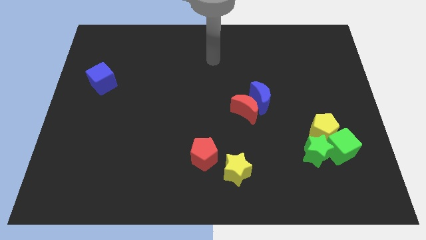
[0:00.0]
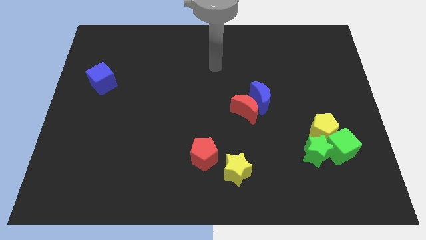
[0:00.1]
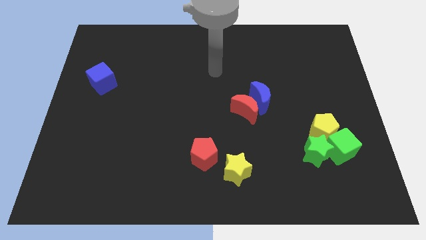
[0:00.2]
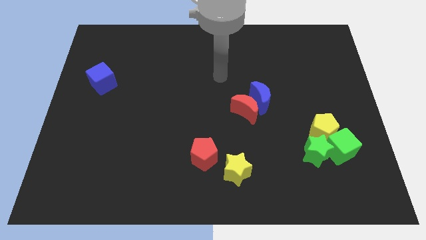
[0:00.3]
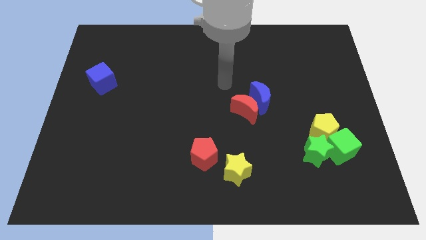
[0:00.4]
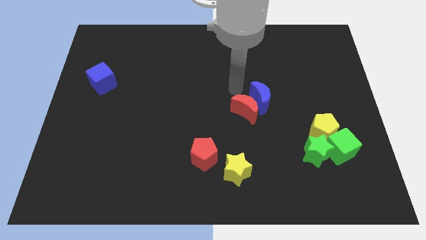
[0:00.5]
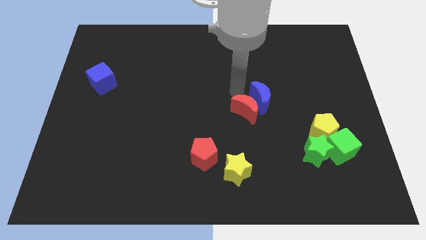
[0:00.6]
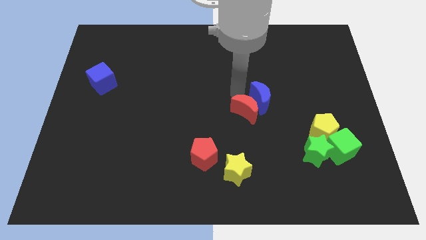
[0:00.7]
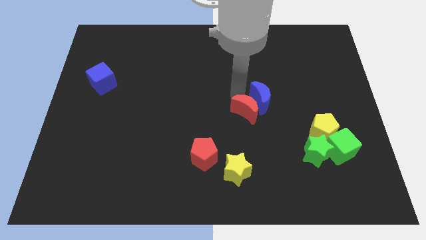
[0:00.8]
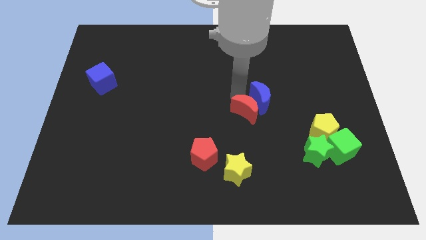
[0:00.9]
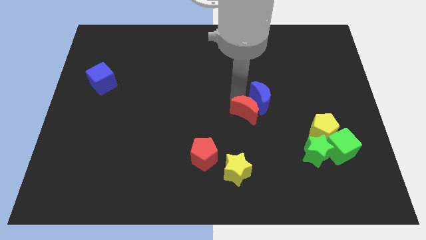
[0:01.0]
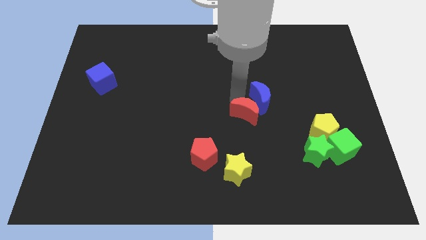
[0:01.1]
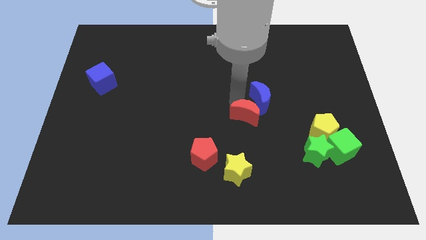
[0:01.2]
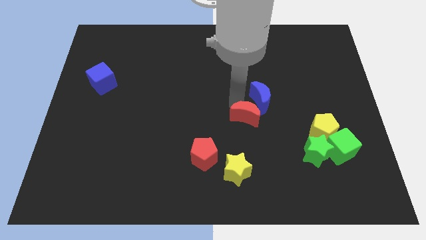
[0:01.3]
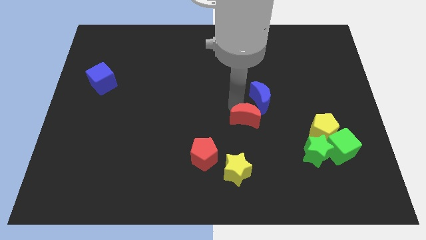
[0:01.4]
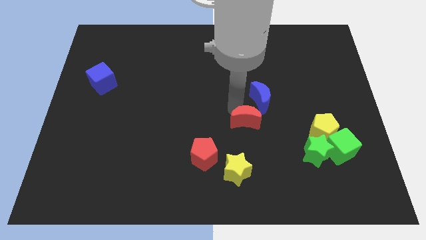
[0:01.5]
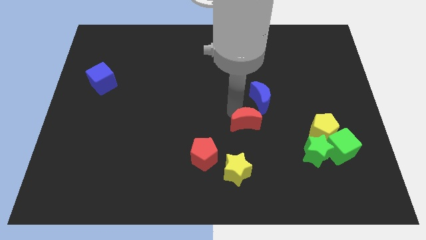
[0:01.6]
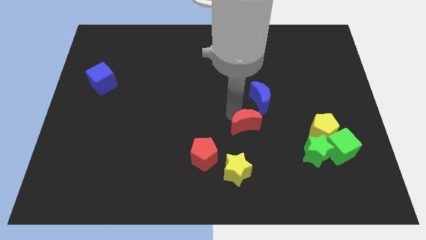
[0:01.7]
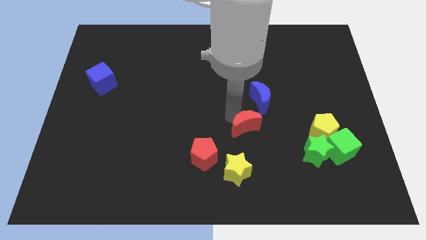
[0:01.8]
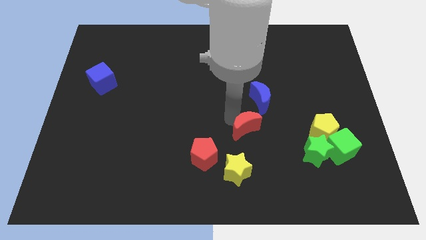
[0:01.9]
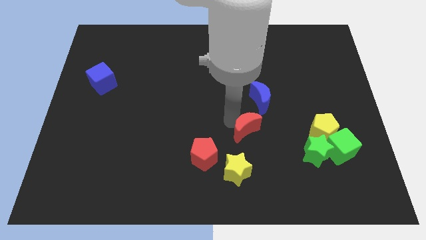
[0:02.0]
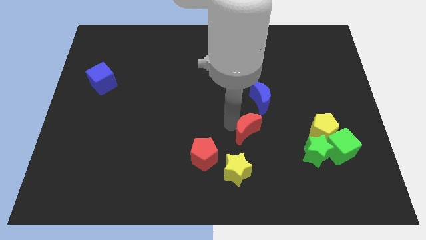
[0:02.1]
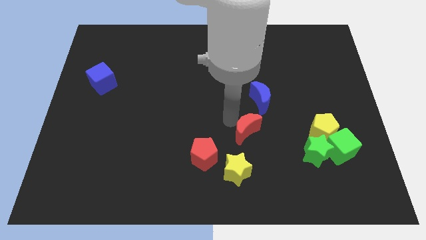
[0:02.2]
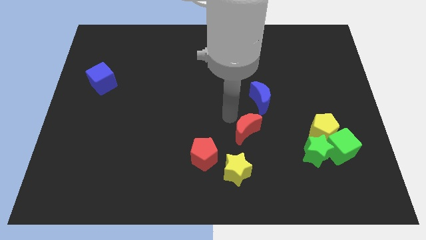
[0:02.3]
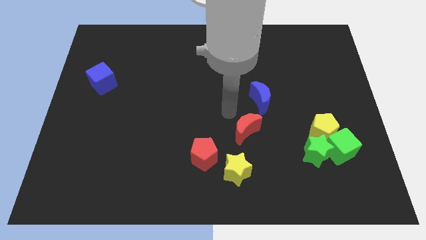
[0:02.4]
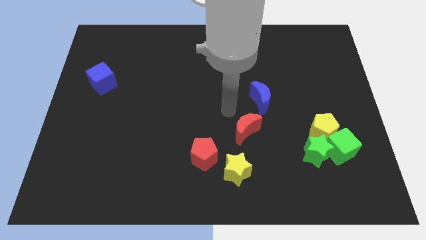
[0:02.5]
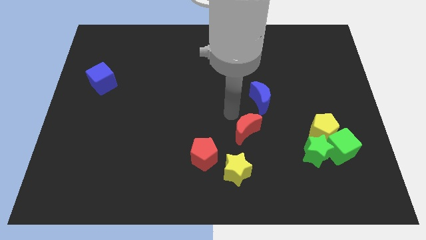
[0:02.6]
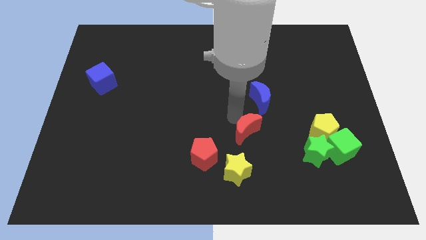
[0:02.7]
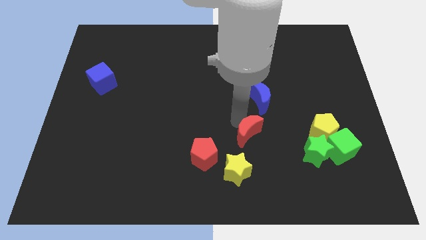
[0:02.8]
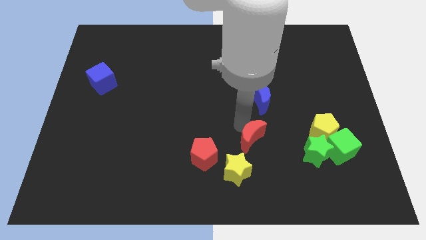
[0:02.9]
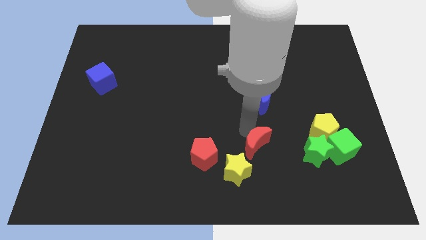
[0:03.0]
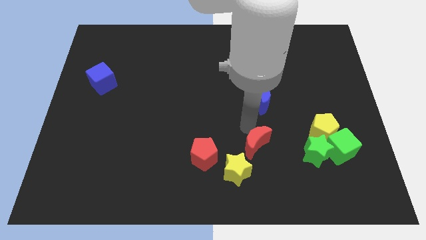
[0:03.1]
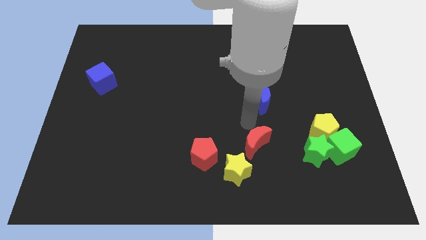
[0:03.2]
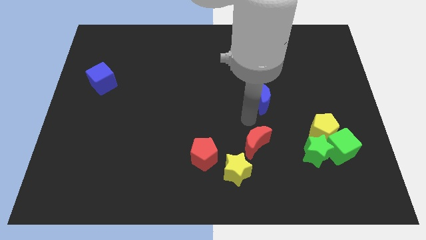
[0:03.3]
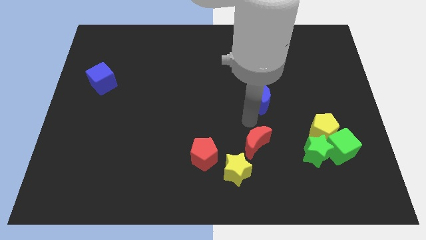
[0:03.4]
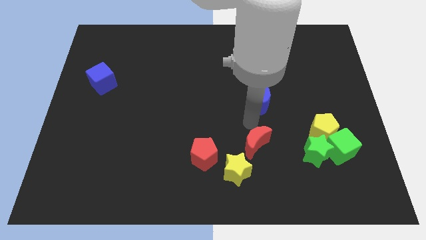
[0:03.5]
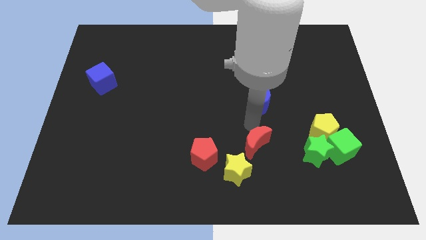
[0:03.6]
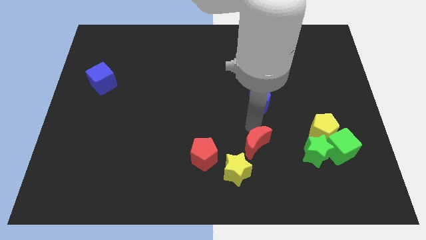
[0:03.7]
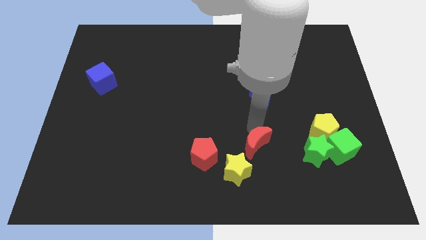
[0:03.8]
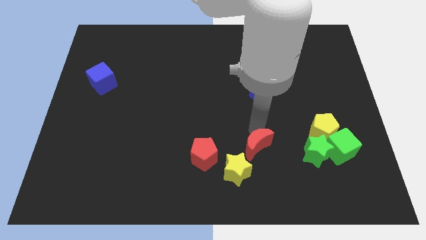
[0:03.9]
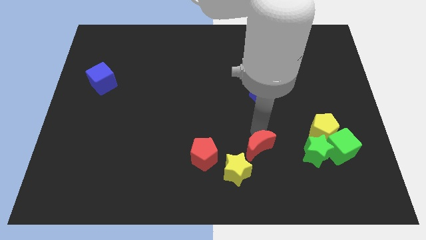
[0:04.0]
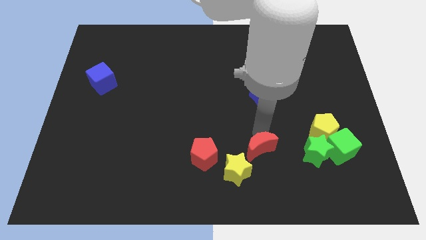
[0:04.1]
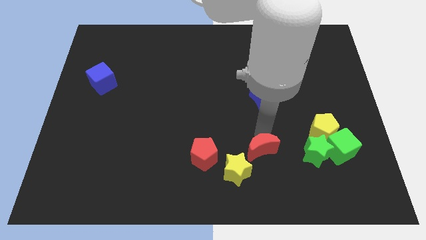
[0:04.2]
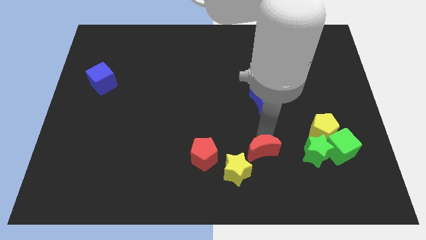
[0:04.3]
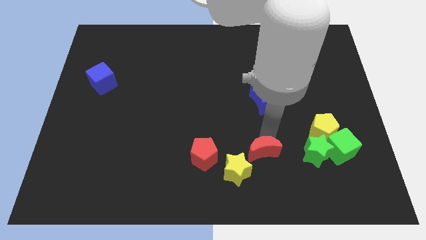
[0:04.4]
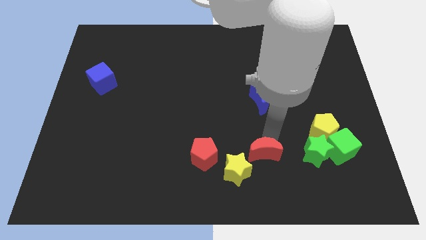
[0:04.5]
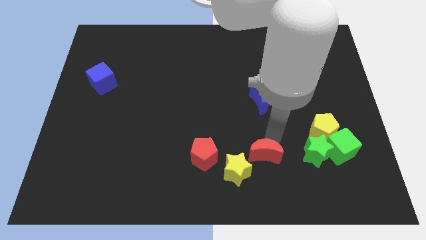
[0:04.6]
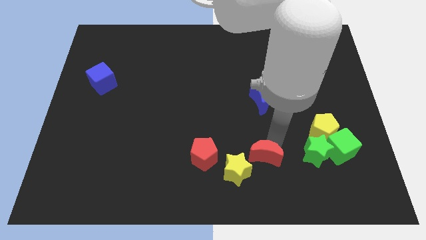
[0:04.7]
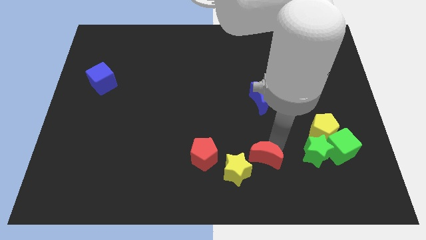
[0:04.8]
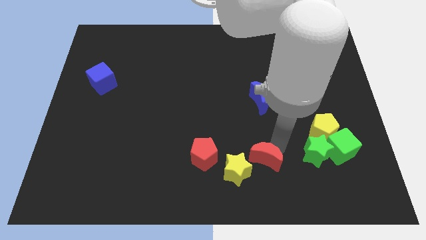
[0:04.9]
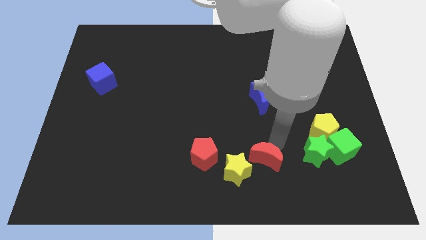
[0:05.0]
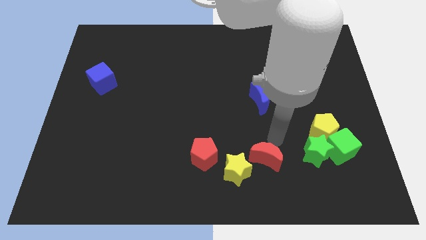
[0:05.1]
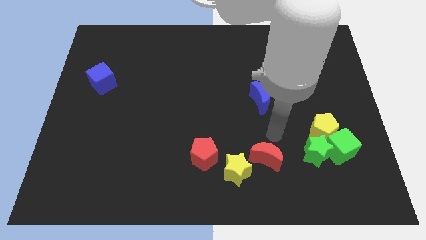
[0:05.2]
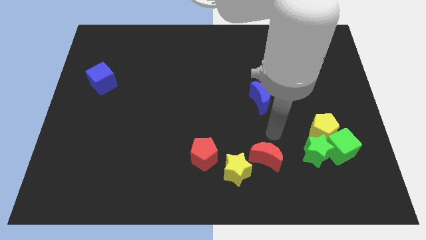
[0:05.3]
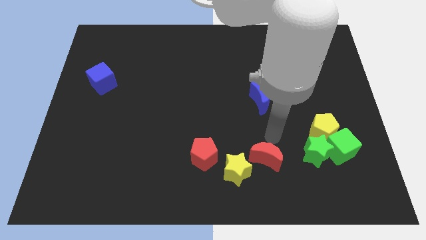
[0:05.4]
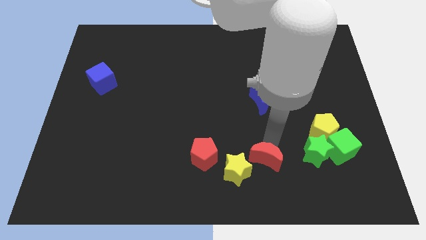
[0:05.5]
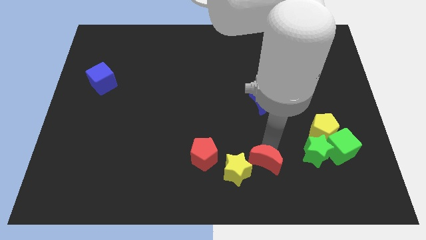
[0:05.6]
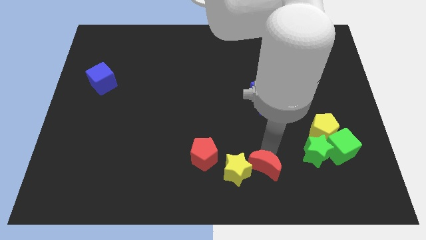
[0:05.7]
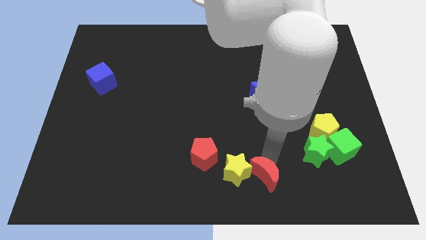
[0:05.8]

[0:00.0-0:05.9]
push the red moon to the bottom side
